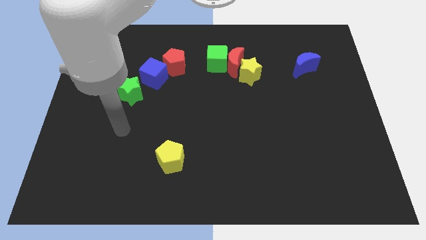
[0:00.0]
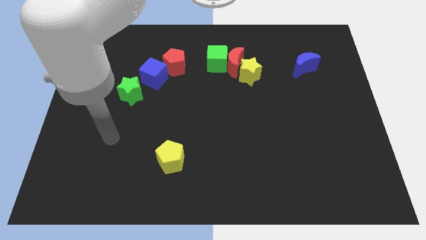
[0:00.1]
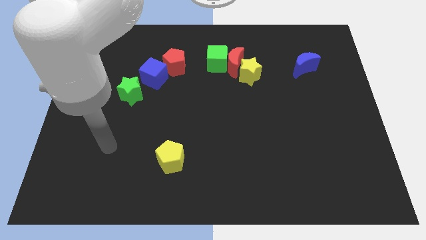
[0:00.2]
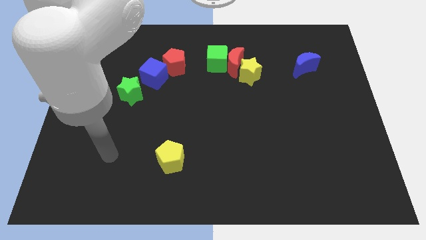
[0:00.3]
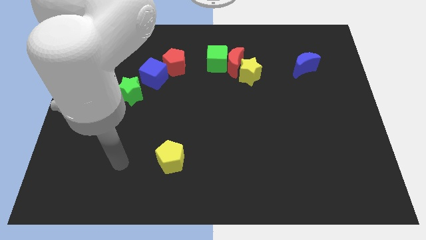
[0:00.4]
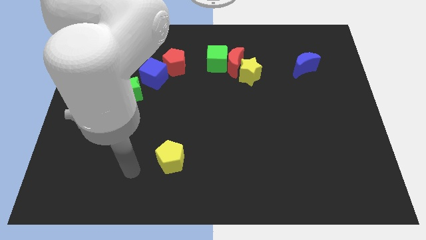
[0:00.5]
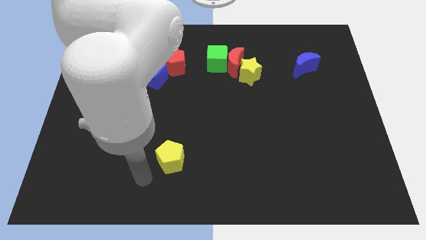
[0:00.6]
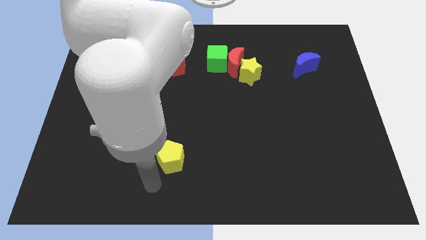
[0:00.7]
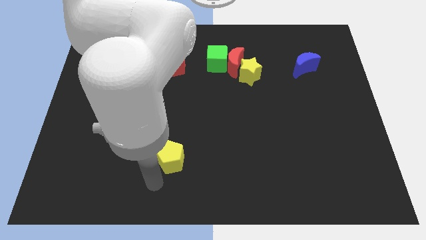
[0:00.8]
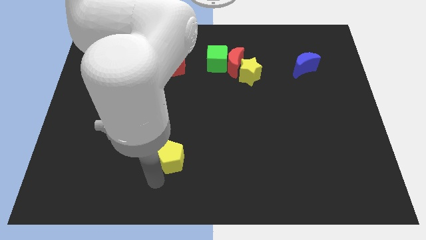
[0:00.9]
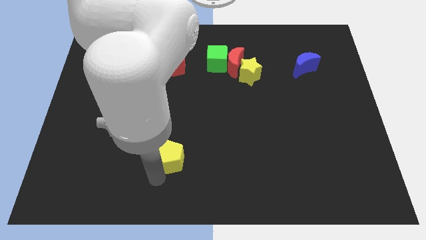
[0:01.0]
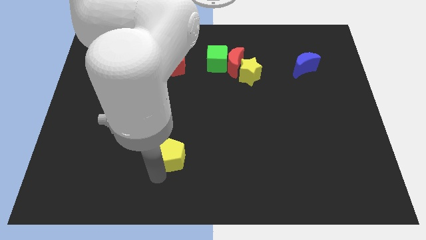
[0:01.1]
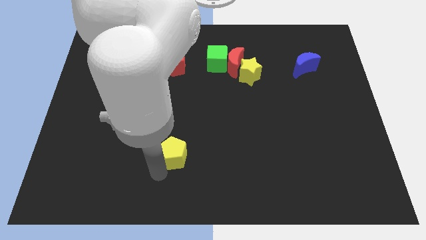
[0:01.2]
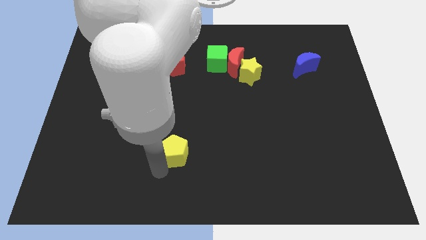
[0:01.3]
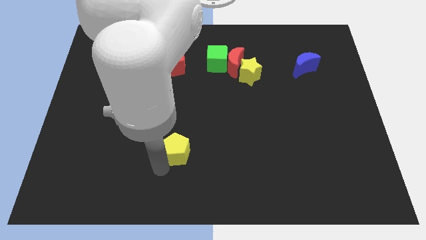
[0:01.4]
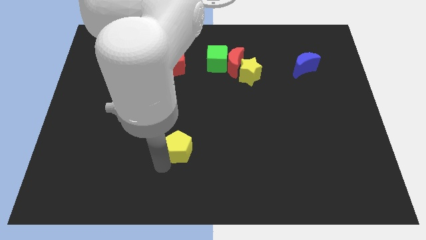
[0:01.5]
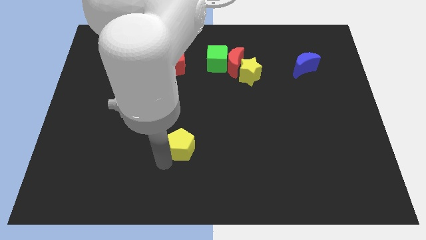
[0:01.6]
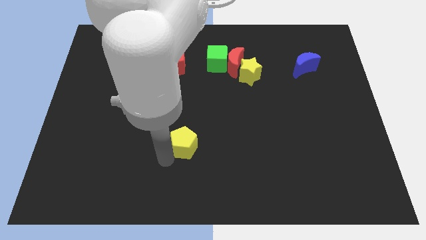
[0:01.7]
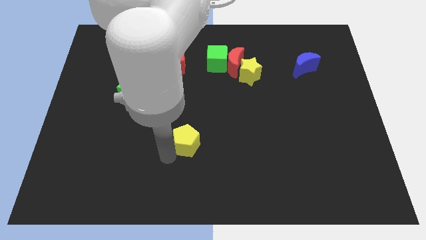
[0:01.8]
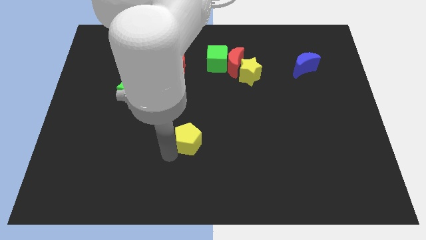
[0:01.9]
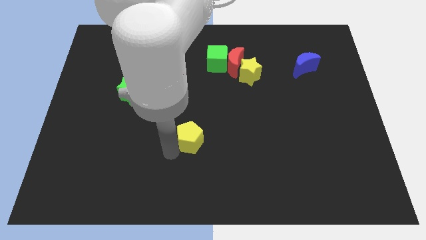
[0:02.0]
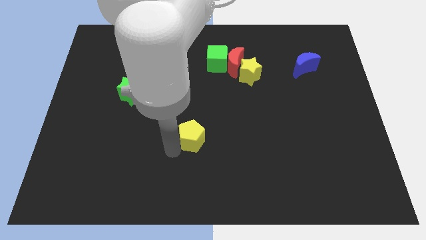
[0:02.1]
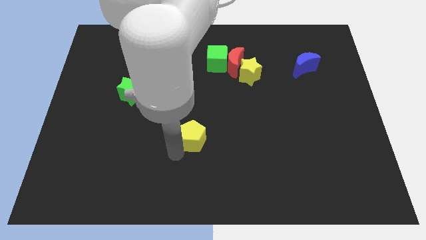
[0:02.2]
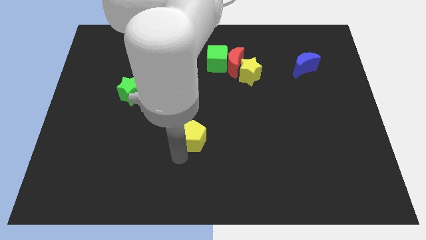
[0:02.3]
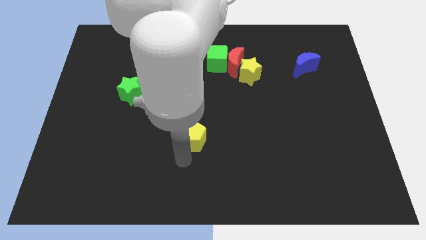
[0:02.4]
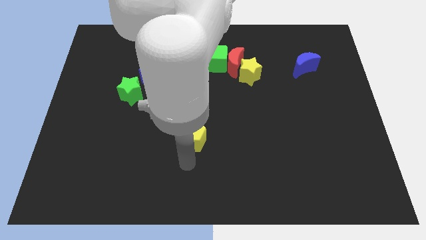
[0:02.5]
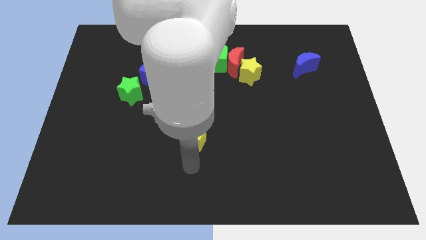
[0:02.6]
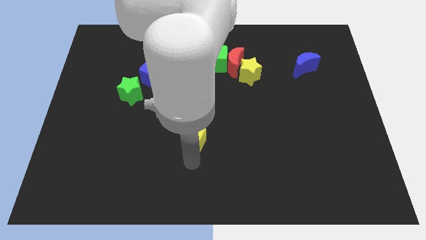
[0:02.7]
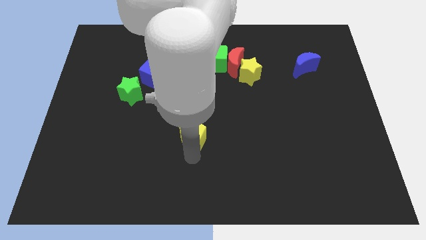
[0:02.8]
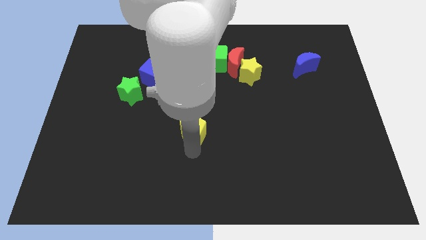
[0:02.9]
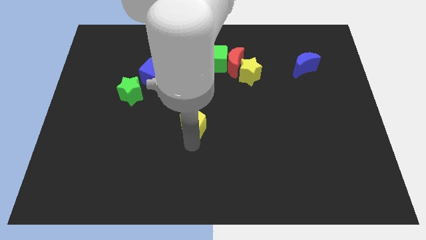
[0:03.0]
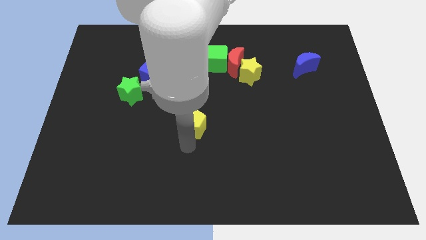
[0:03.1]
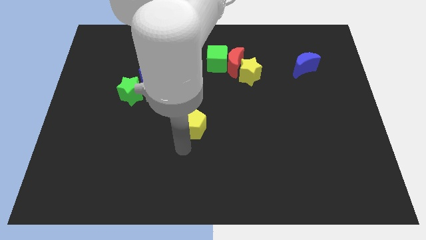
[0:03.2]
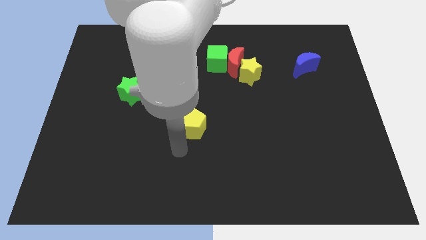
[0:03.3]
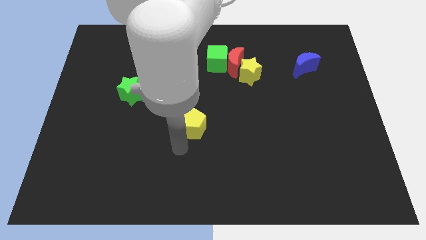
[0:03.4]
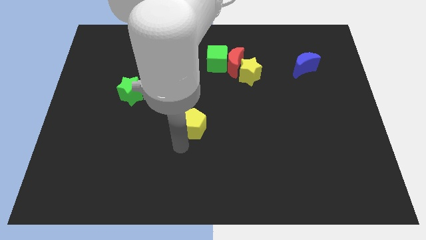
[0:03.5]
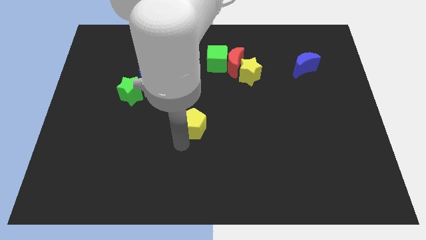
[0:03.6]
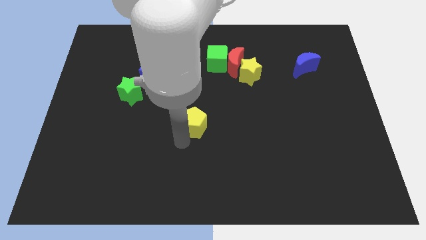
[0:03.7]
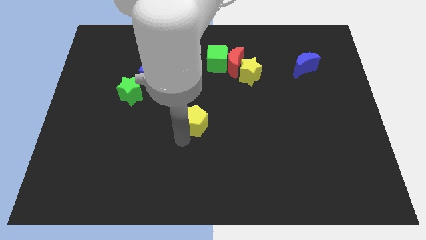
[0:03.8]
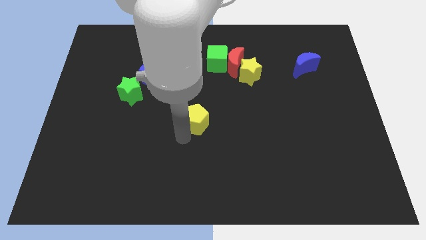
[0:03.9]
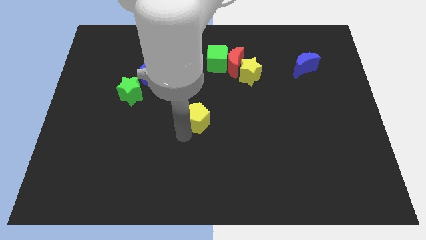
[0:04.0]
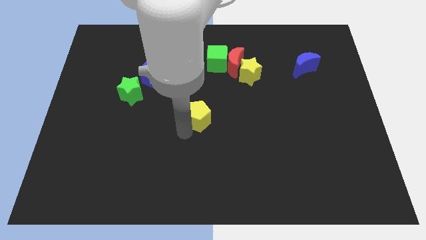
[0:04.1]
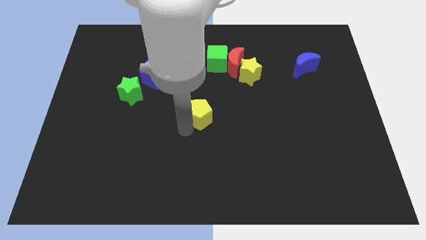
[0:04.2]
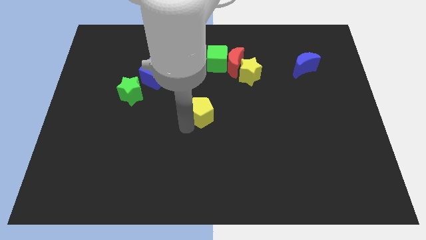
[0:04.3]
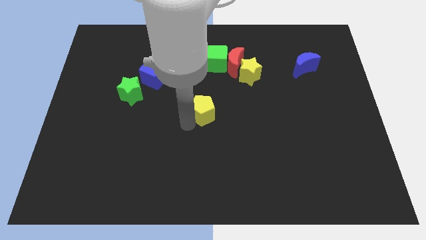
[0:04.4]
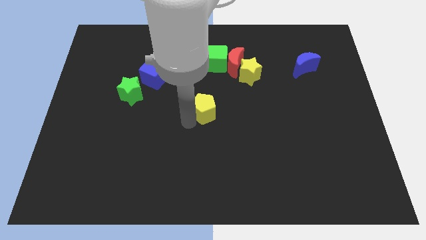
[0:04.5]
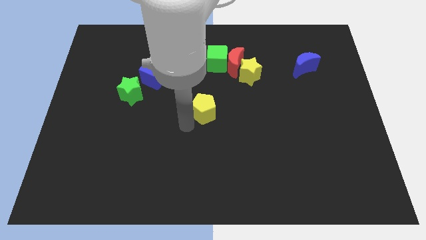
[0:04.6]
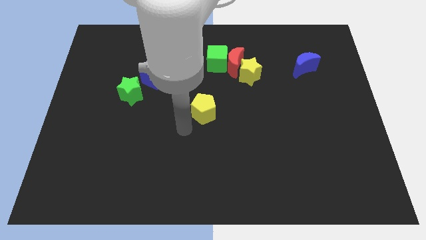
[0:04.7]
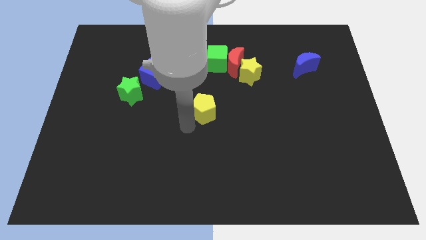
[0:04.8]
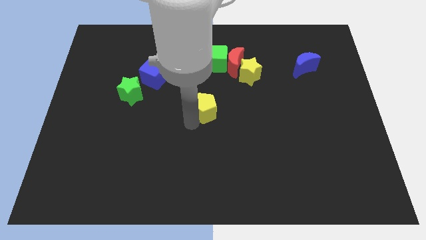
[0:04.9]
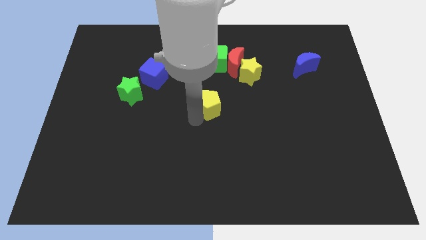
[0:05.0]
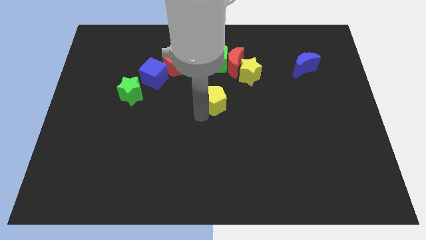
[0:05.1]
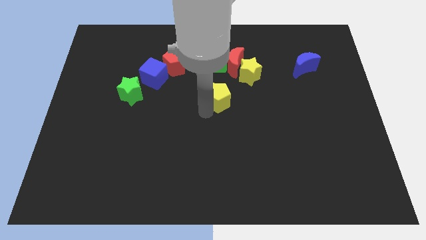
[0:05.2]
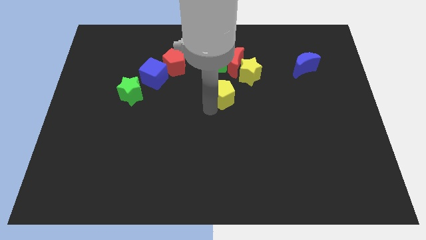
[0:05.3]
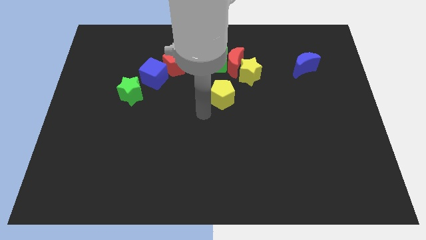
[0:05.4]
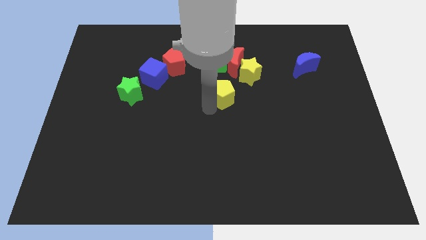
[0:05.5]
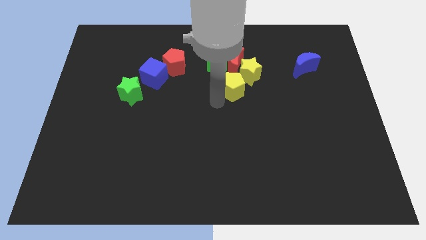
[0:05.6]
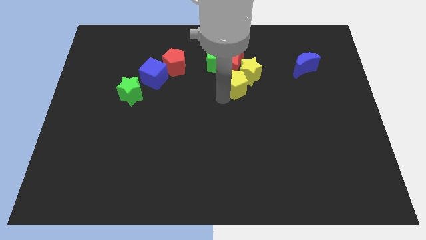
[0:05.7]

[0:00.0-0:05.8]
put the yellow pentagon next to the yellow star
